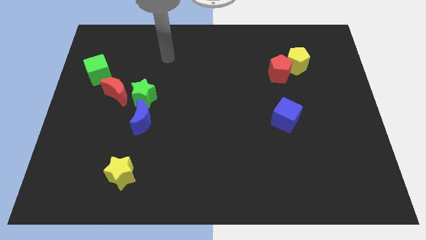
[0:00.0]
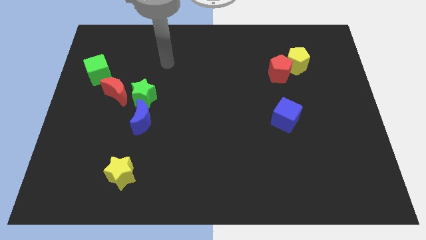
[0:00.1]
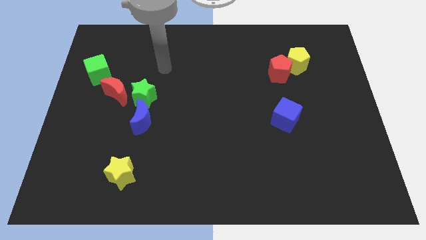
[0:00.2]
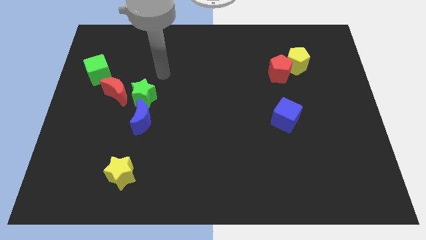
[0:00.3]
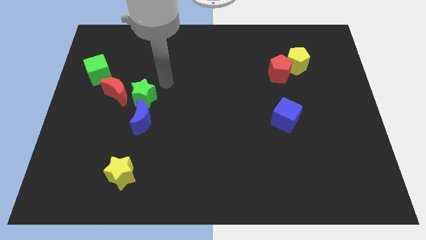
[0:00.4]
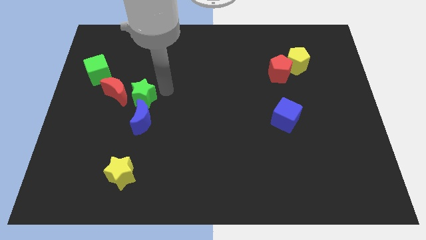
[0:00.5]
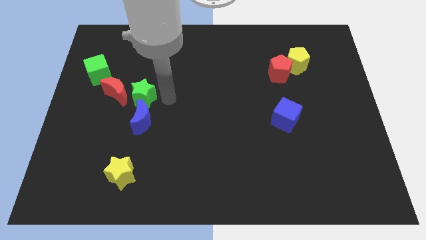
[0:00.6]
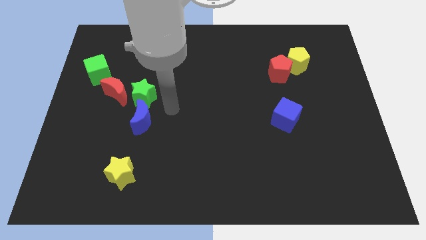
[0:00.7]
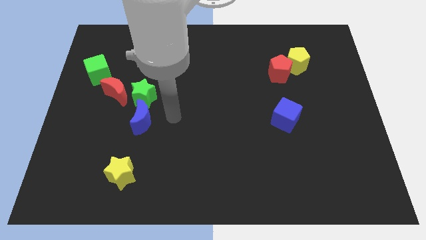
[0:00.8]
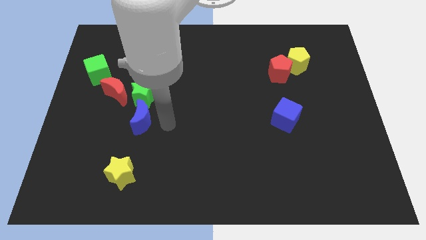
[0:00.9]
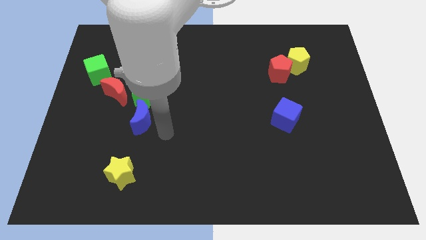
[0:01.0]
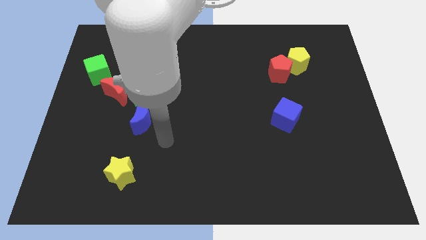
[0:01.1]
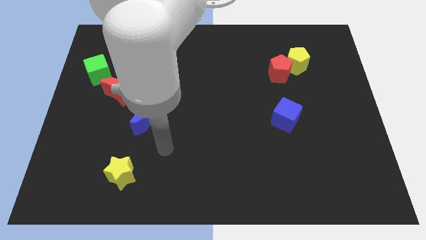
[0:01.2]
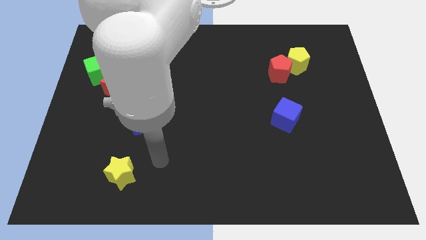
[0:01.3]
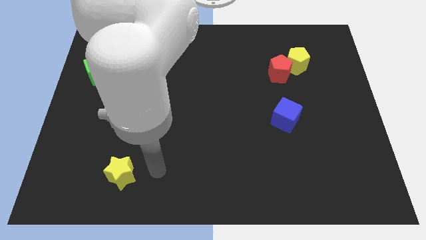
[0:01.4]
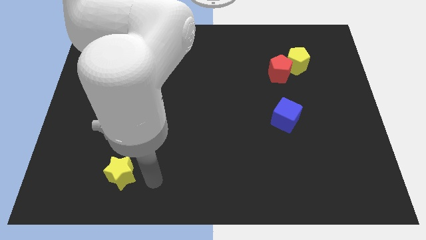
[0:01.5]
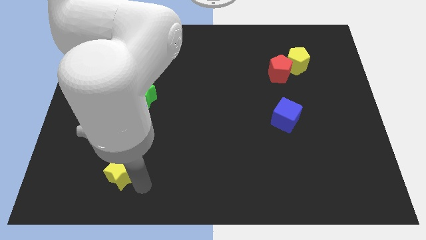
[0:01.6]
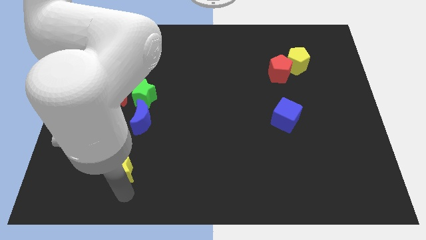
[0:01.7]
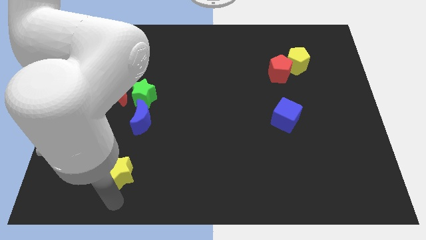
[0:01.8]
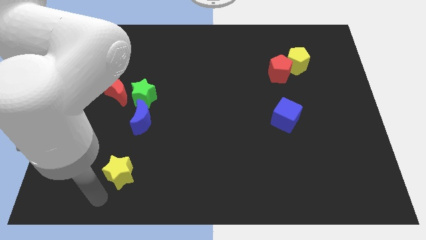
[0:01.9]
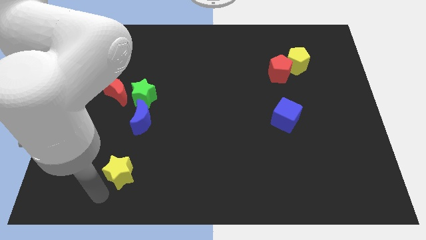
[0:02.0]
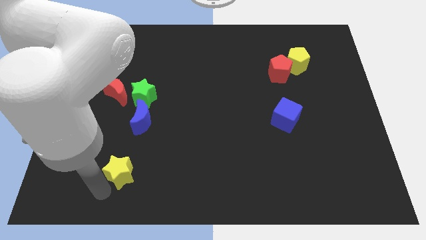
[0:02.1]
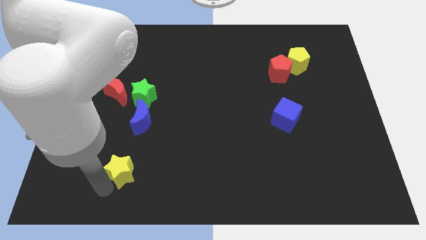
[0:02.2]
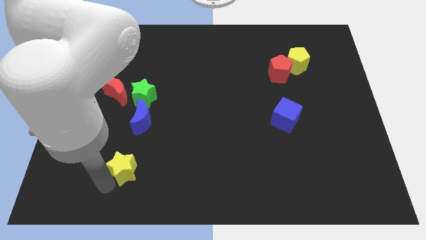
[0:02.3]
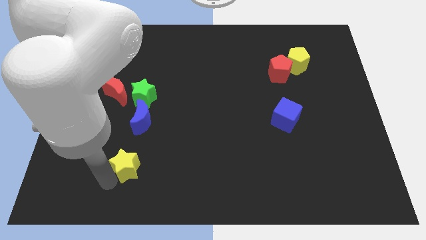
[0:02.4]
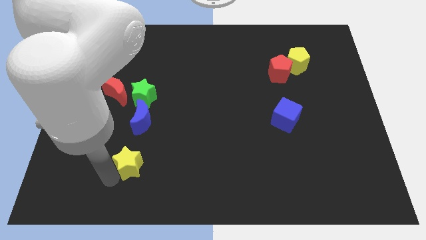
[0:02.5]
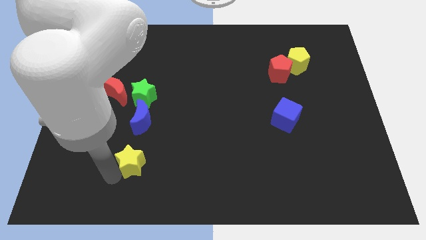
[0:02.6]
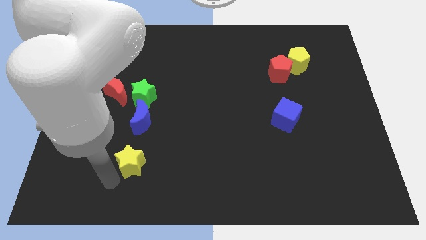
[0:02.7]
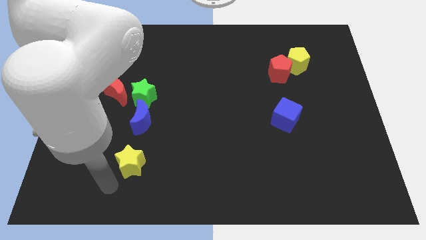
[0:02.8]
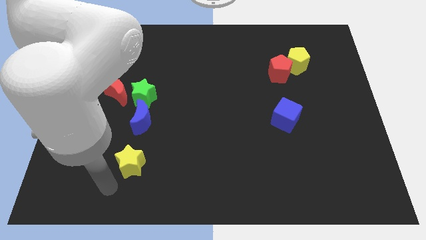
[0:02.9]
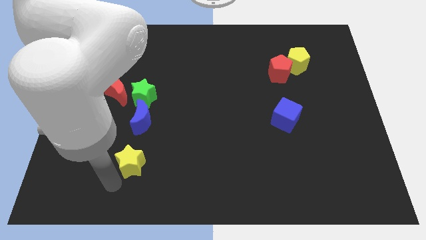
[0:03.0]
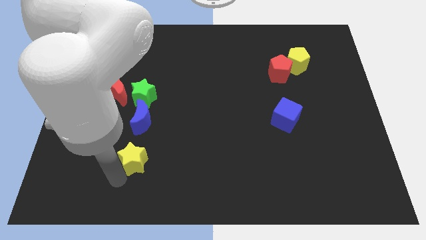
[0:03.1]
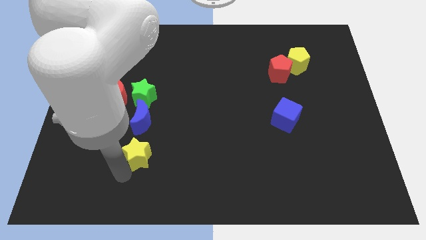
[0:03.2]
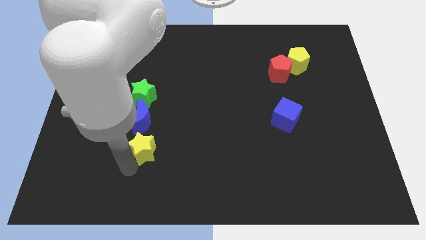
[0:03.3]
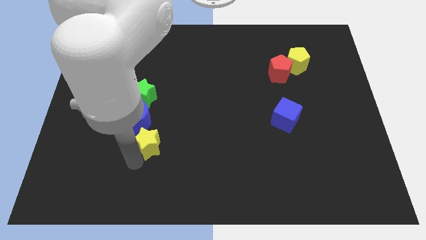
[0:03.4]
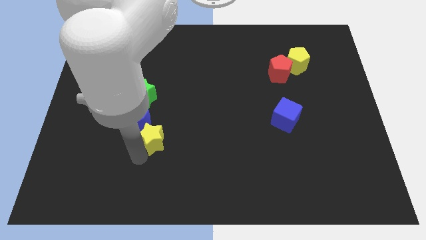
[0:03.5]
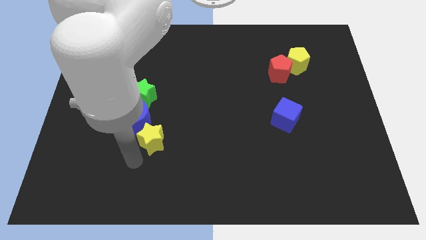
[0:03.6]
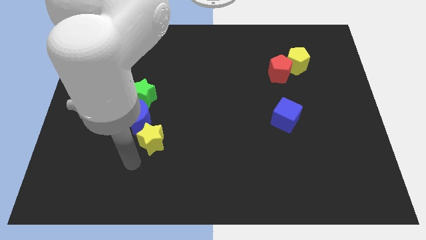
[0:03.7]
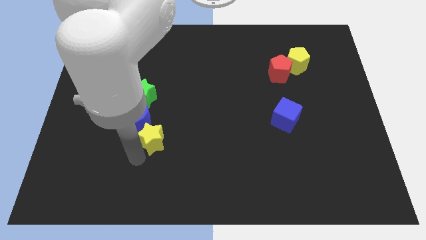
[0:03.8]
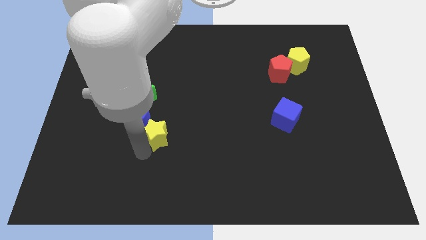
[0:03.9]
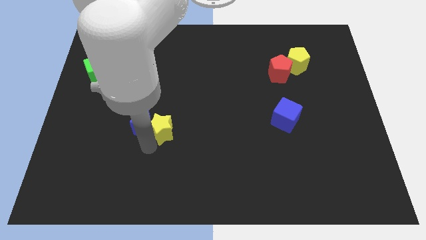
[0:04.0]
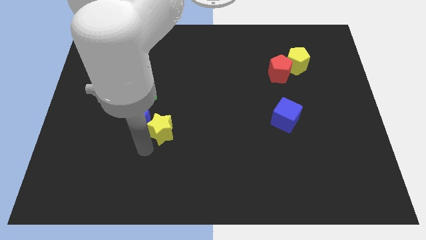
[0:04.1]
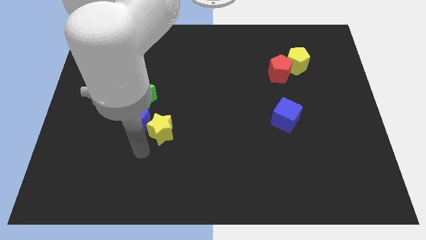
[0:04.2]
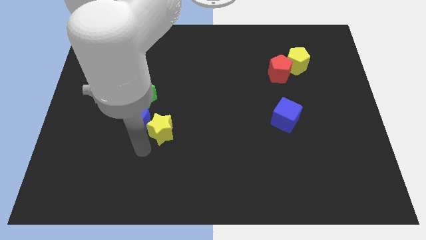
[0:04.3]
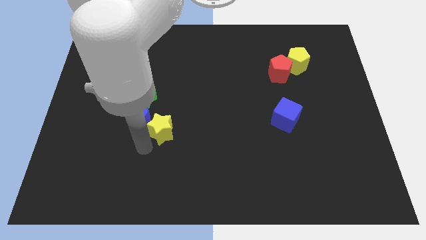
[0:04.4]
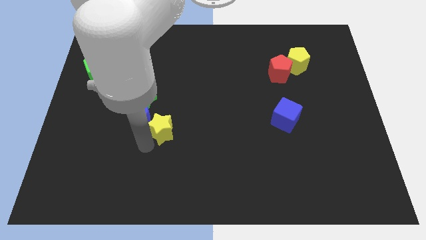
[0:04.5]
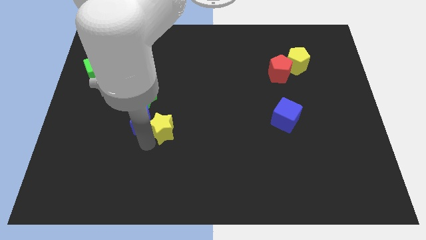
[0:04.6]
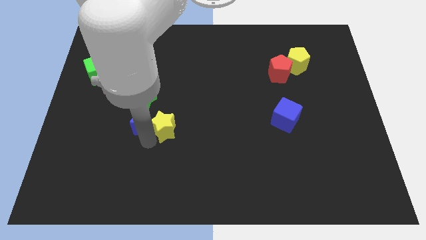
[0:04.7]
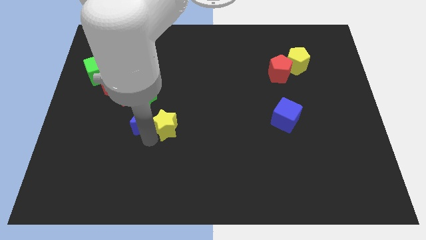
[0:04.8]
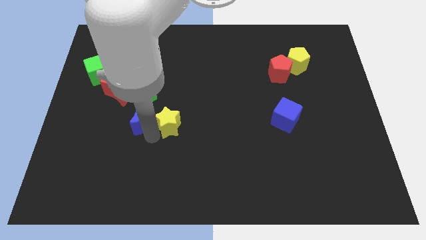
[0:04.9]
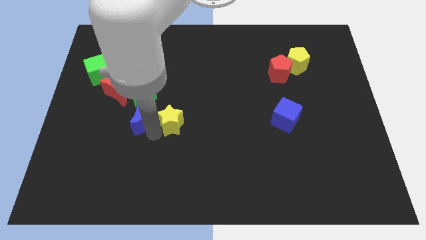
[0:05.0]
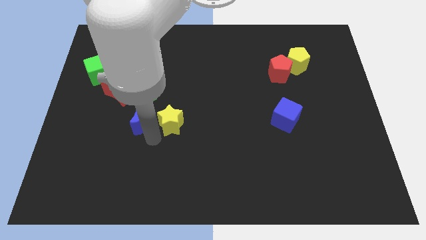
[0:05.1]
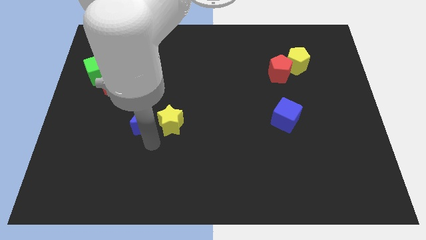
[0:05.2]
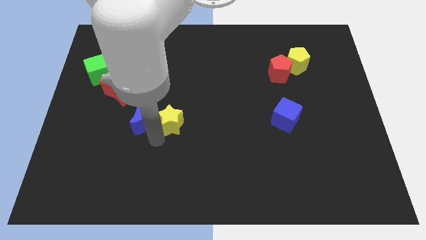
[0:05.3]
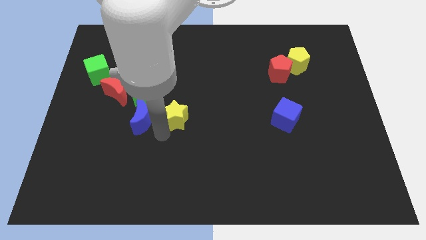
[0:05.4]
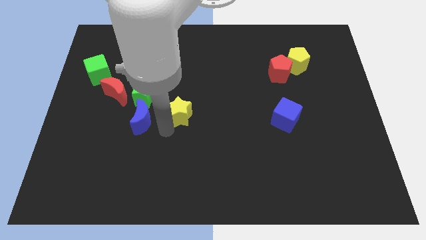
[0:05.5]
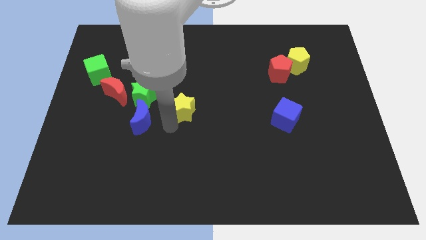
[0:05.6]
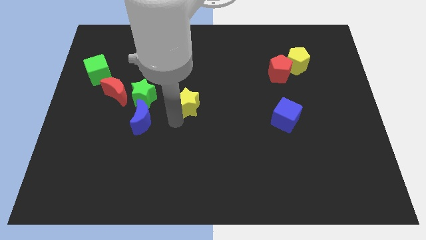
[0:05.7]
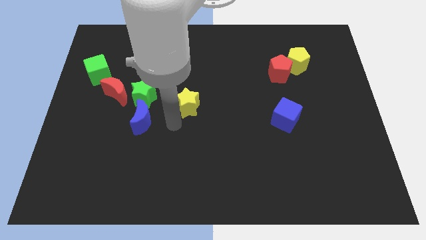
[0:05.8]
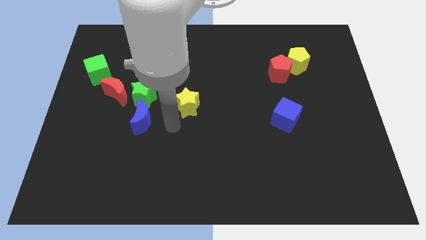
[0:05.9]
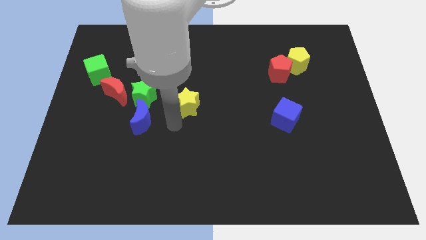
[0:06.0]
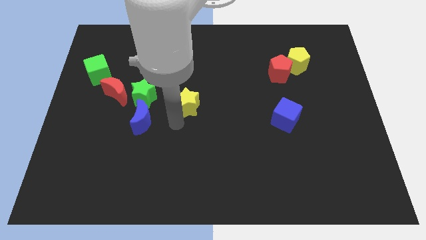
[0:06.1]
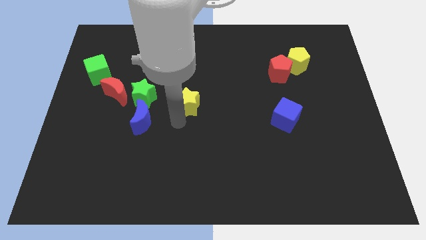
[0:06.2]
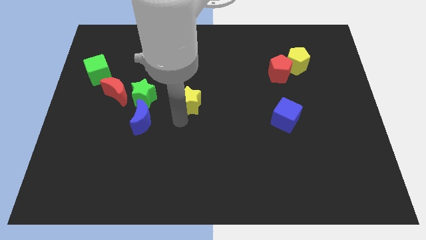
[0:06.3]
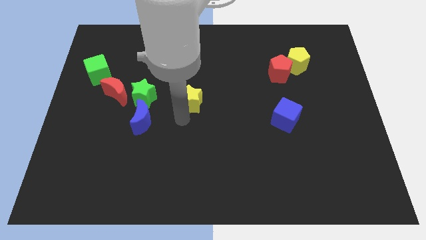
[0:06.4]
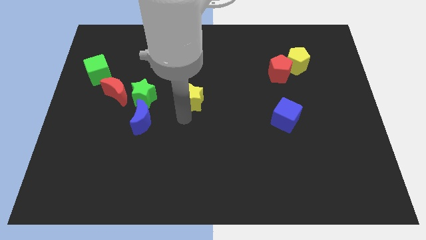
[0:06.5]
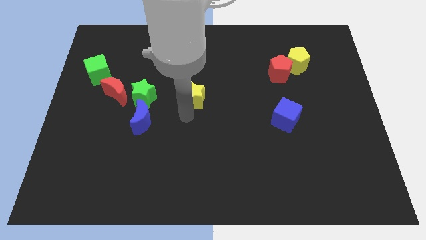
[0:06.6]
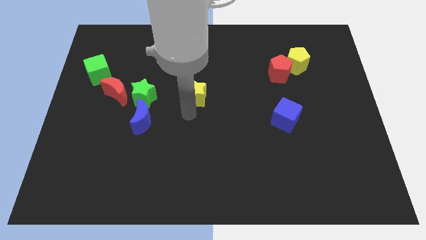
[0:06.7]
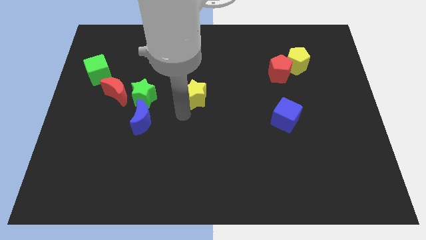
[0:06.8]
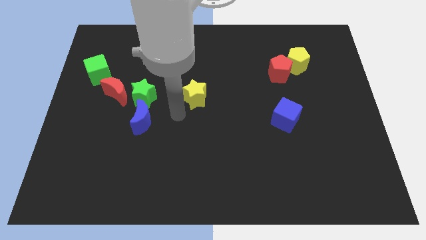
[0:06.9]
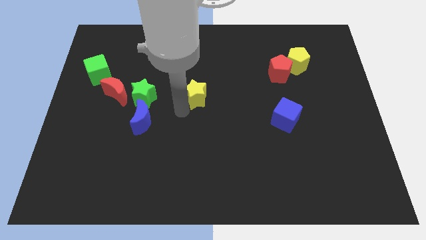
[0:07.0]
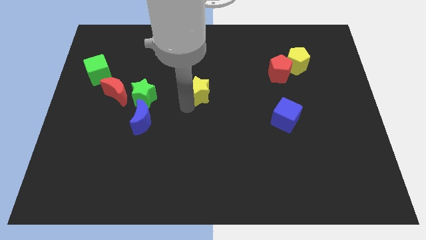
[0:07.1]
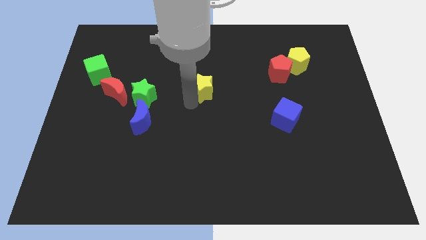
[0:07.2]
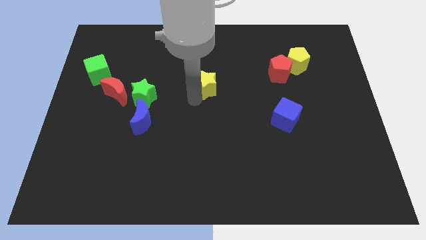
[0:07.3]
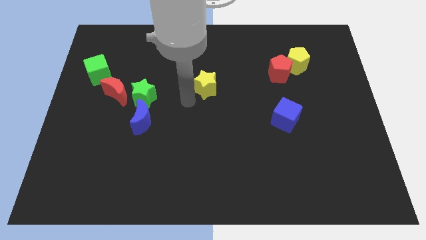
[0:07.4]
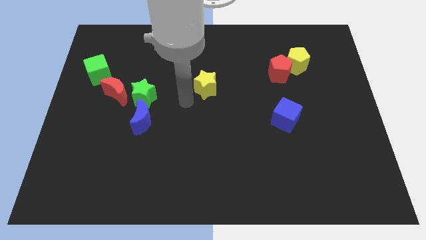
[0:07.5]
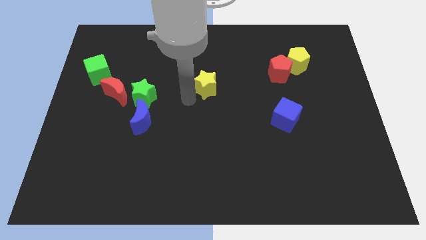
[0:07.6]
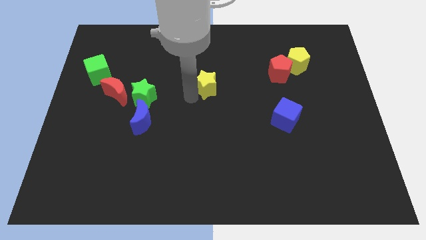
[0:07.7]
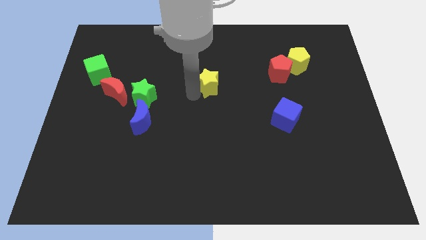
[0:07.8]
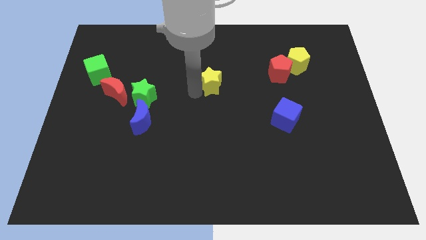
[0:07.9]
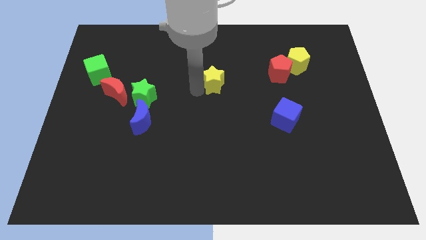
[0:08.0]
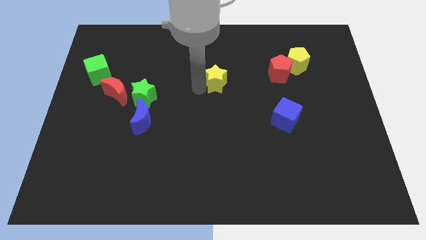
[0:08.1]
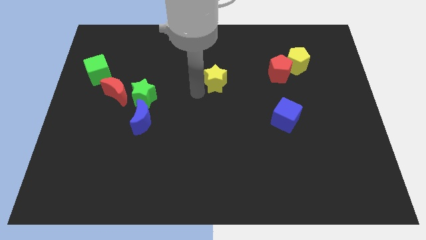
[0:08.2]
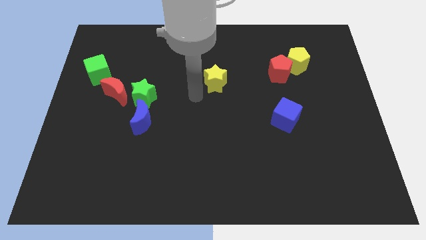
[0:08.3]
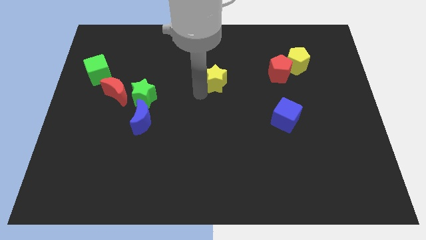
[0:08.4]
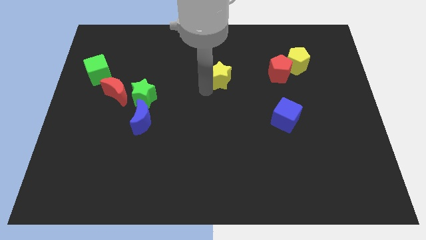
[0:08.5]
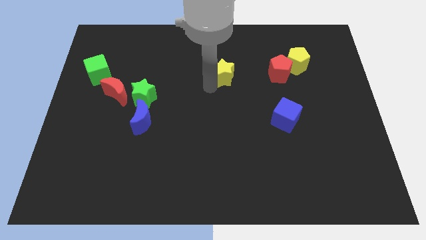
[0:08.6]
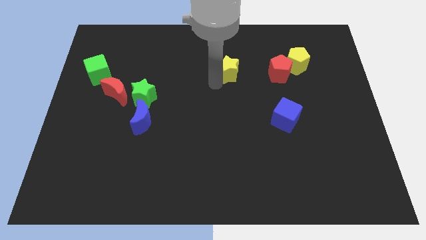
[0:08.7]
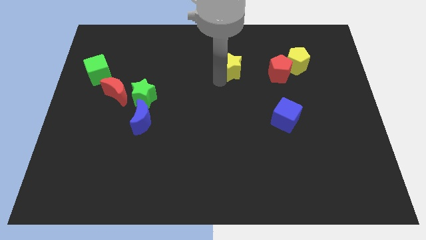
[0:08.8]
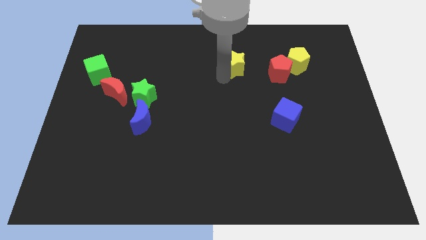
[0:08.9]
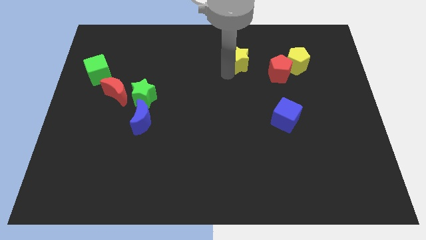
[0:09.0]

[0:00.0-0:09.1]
put the yellow star to the top left side of the red pentagon
